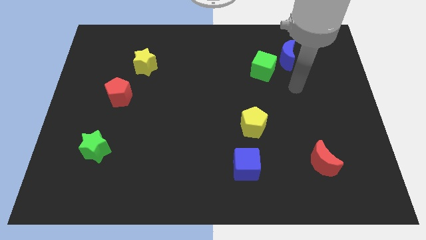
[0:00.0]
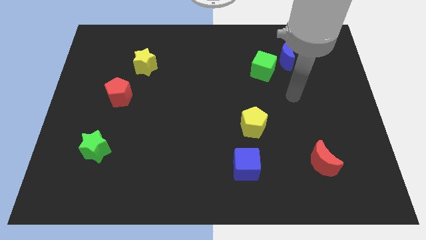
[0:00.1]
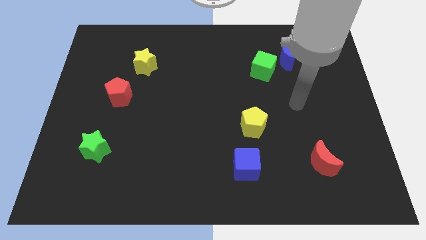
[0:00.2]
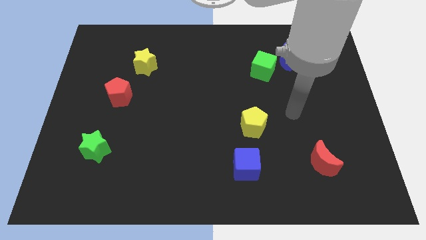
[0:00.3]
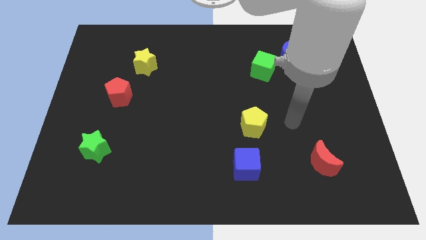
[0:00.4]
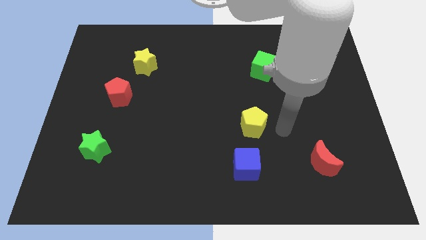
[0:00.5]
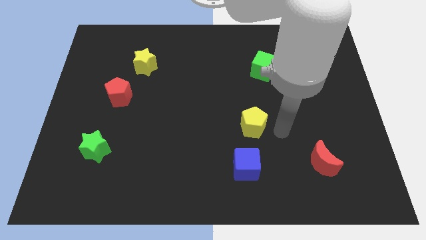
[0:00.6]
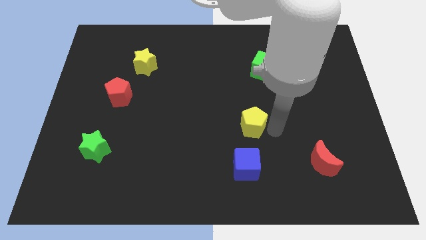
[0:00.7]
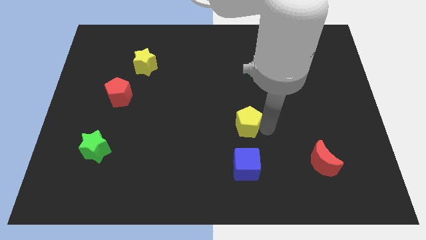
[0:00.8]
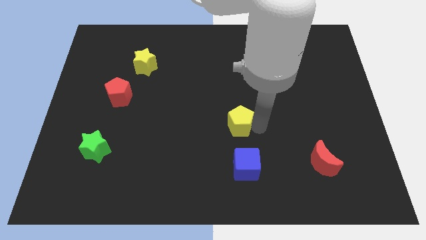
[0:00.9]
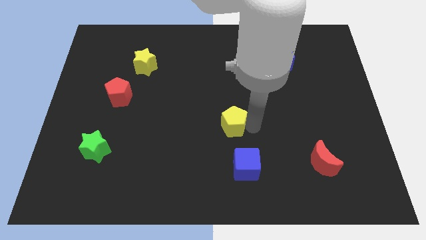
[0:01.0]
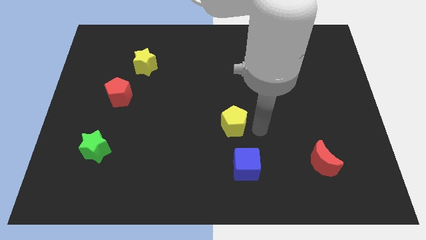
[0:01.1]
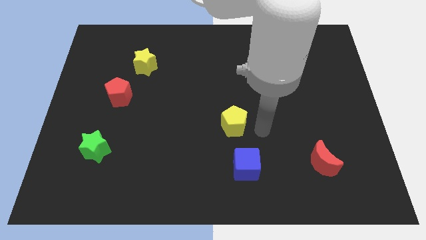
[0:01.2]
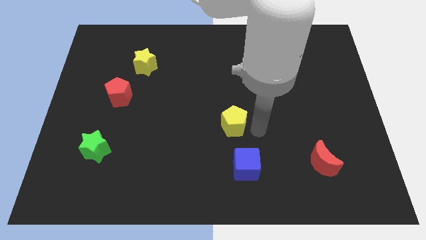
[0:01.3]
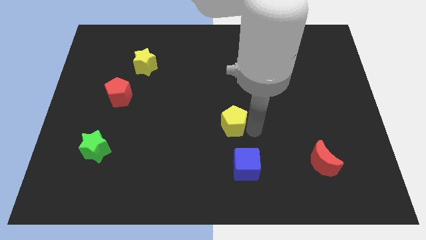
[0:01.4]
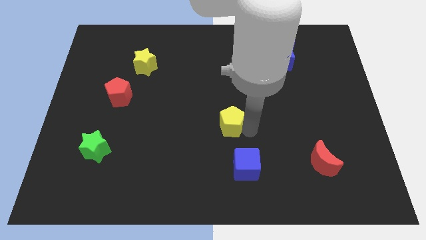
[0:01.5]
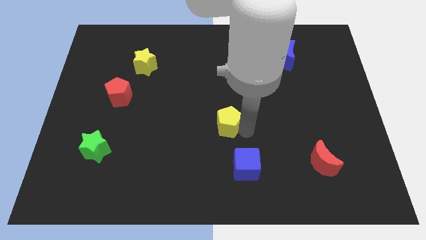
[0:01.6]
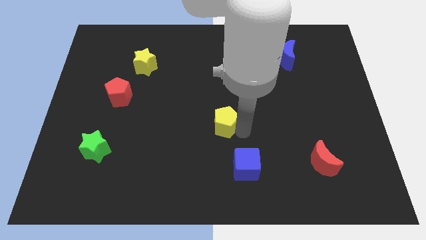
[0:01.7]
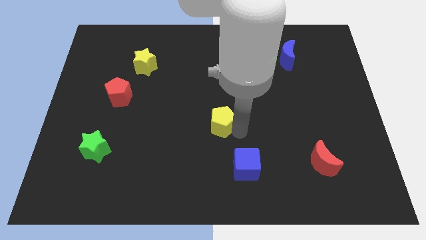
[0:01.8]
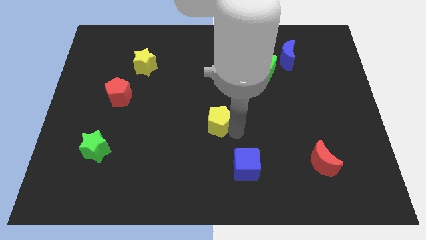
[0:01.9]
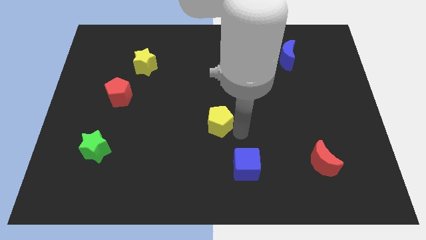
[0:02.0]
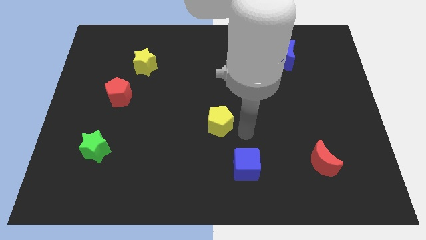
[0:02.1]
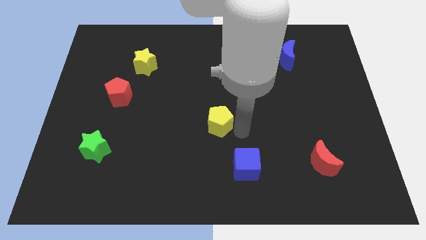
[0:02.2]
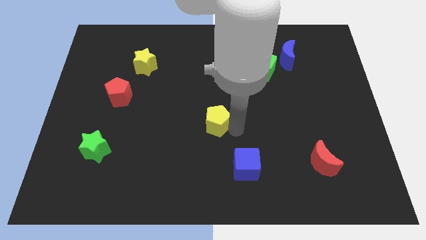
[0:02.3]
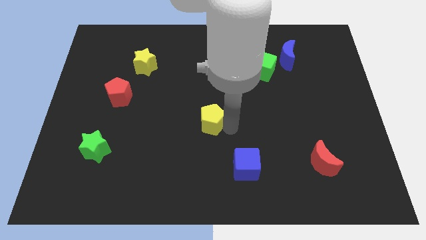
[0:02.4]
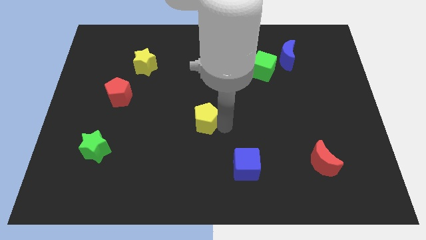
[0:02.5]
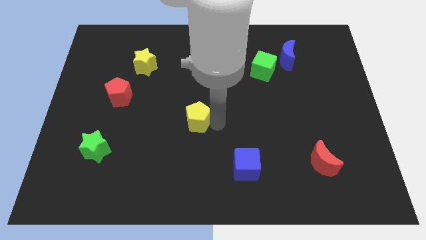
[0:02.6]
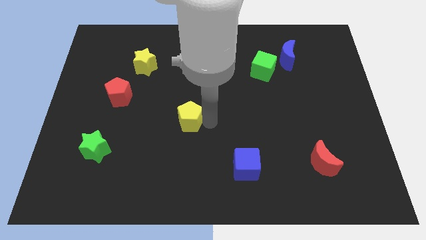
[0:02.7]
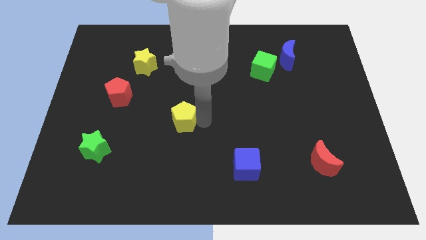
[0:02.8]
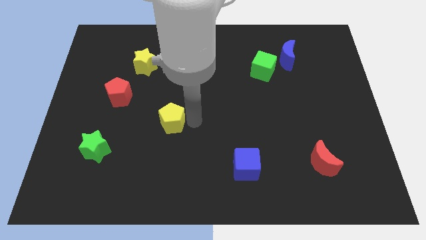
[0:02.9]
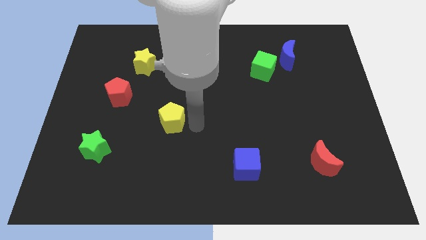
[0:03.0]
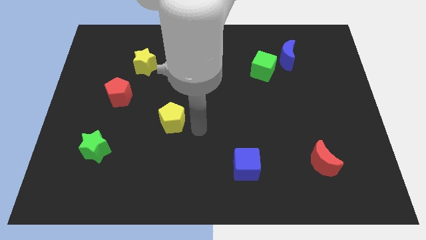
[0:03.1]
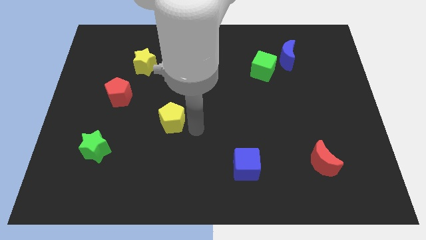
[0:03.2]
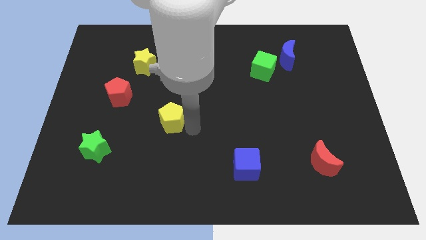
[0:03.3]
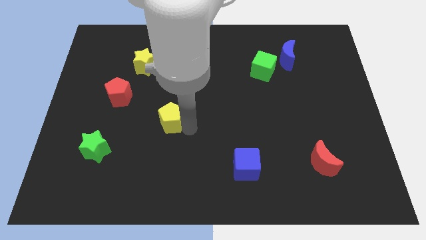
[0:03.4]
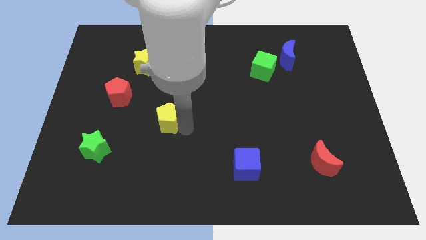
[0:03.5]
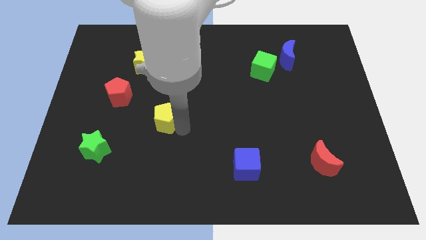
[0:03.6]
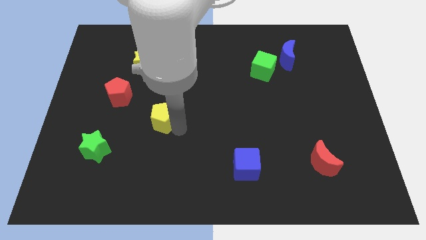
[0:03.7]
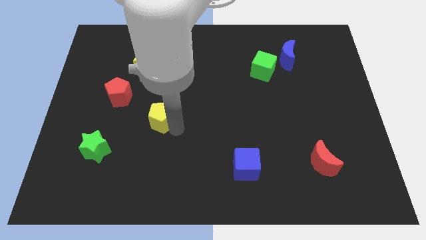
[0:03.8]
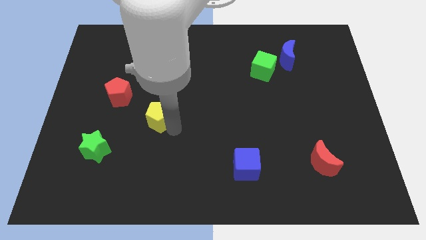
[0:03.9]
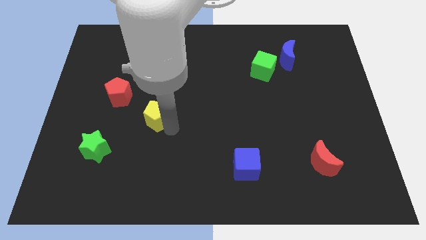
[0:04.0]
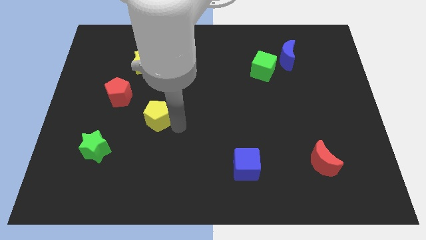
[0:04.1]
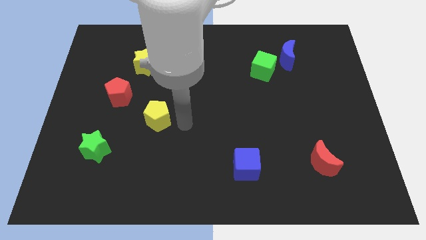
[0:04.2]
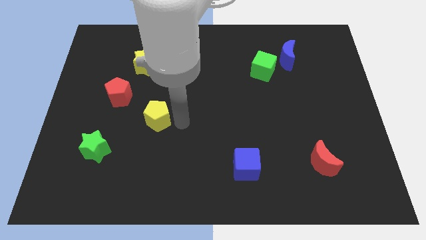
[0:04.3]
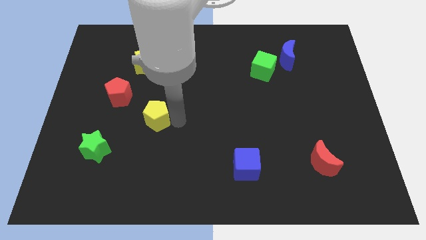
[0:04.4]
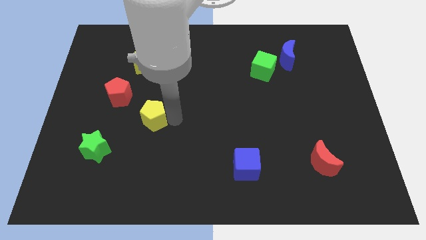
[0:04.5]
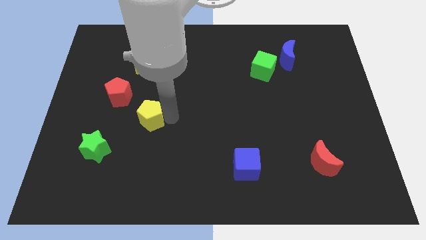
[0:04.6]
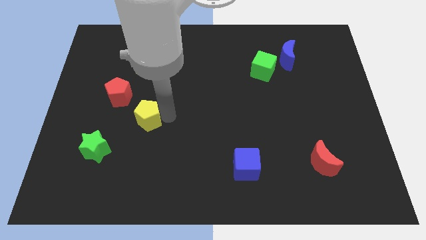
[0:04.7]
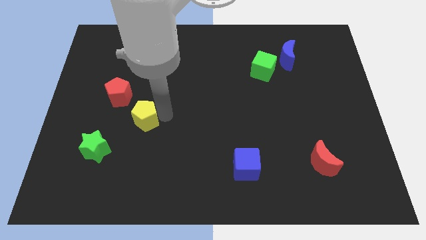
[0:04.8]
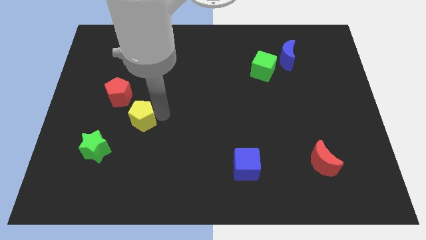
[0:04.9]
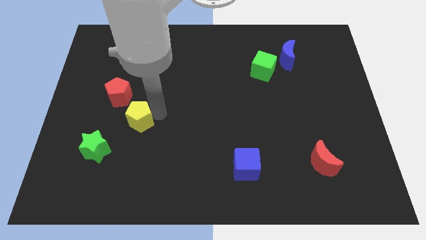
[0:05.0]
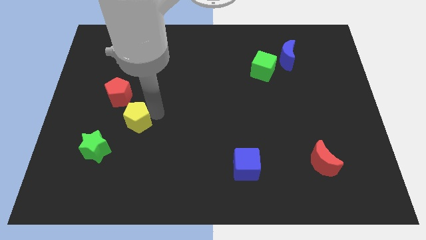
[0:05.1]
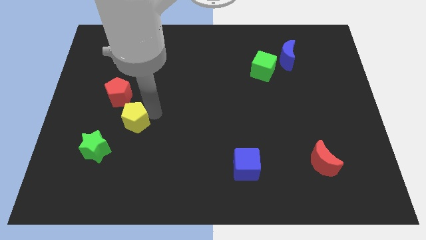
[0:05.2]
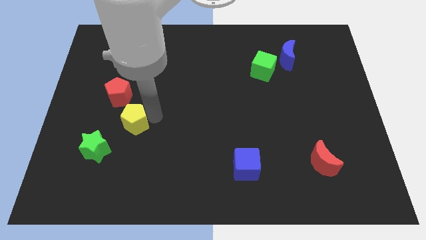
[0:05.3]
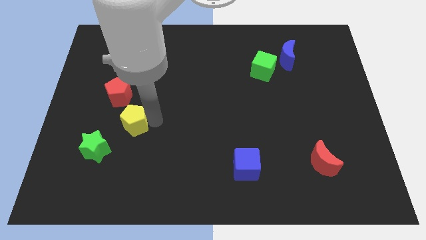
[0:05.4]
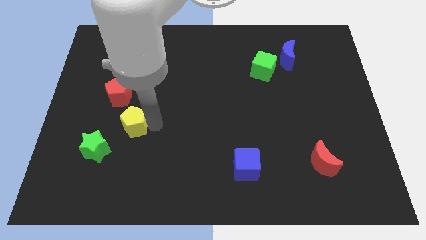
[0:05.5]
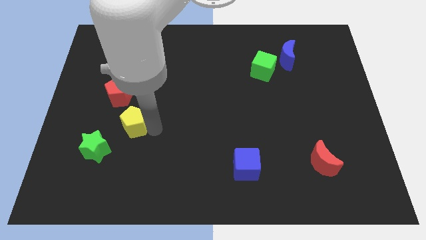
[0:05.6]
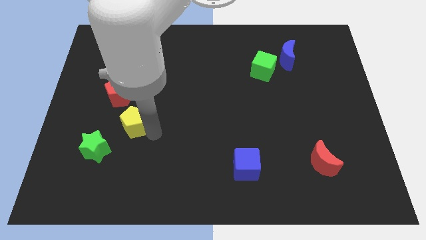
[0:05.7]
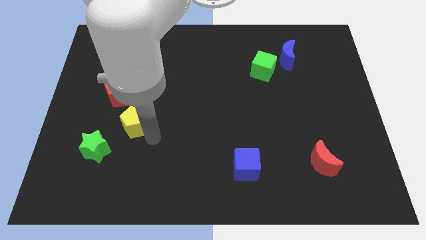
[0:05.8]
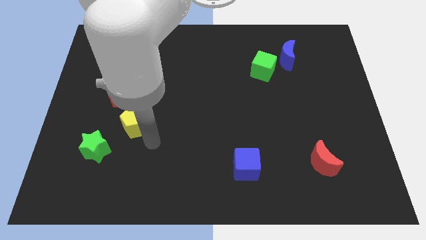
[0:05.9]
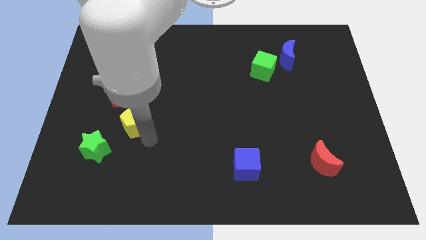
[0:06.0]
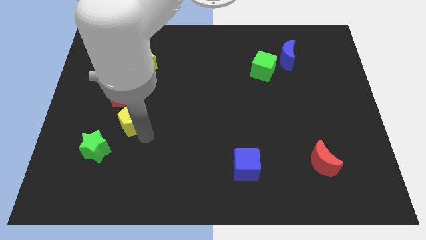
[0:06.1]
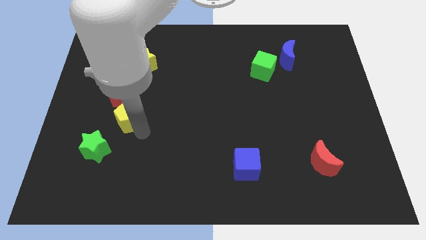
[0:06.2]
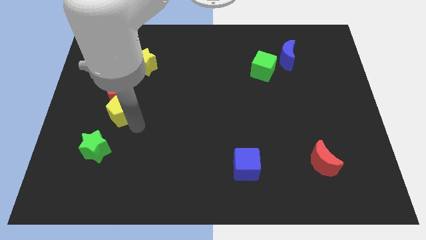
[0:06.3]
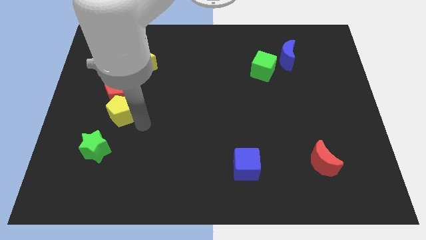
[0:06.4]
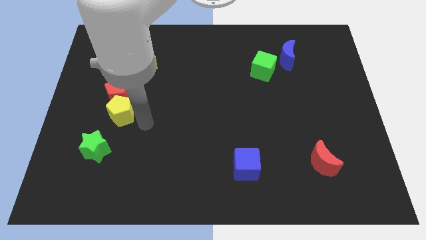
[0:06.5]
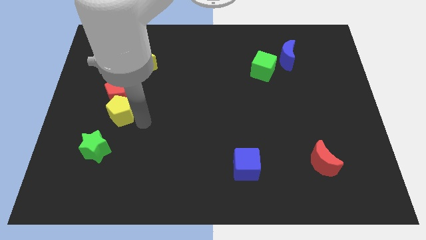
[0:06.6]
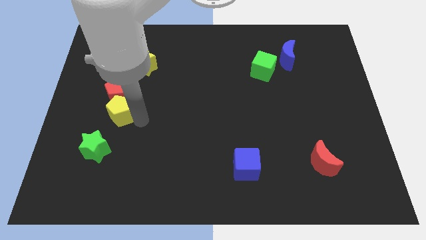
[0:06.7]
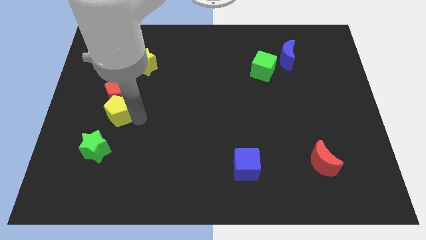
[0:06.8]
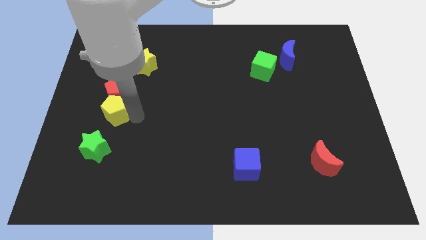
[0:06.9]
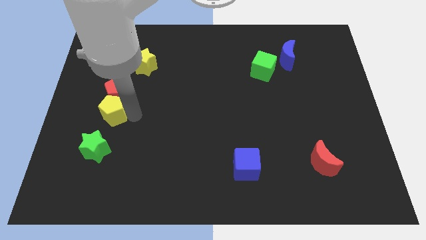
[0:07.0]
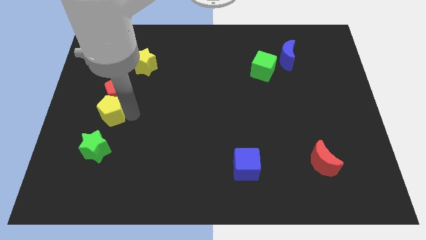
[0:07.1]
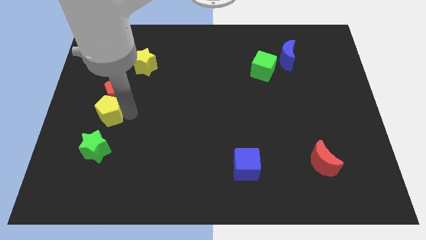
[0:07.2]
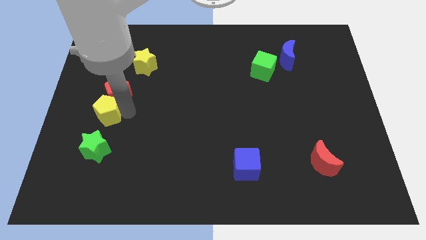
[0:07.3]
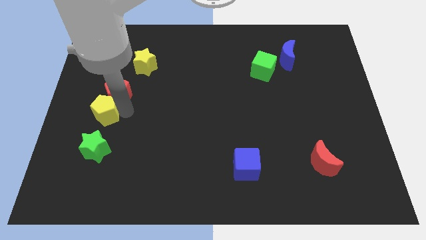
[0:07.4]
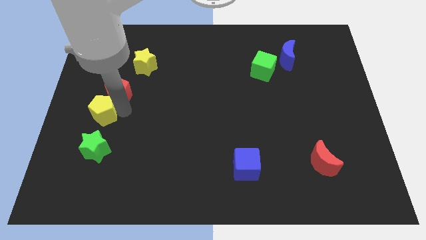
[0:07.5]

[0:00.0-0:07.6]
put the yellow pentagon to the left side of the board
